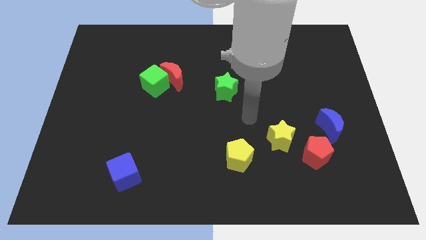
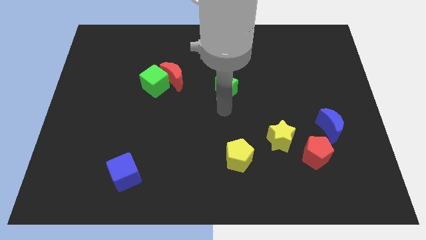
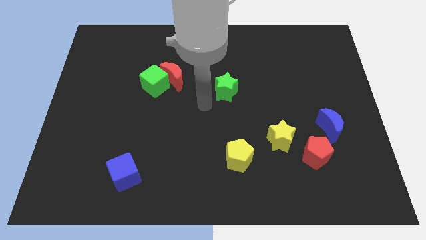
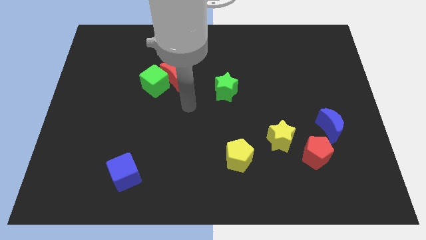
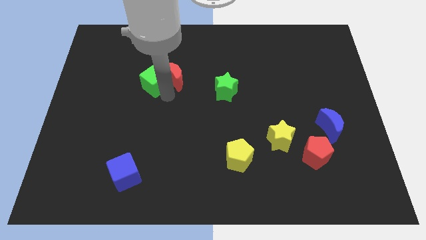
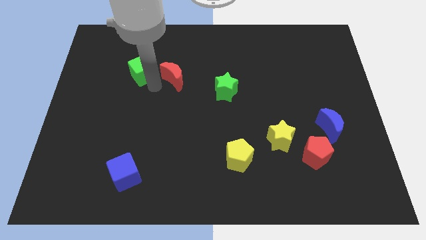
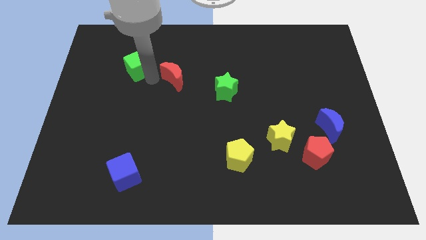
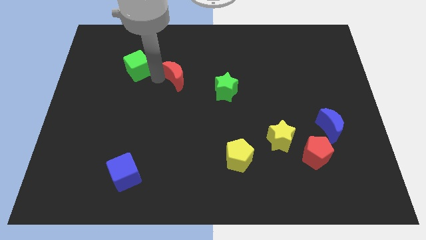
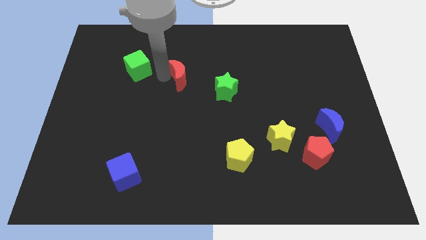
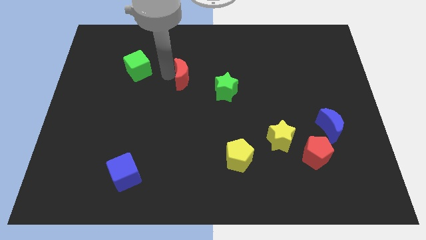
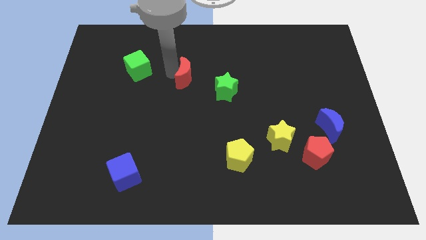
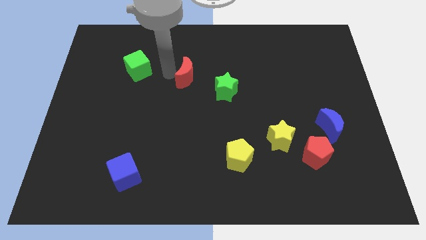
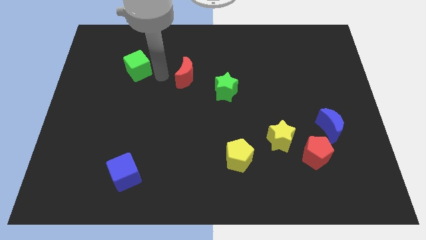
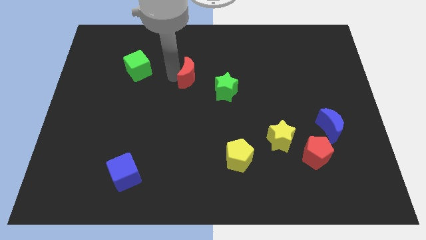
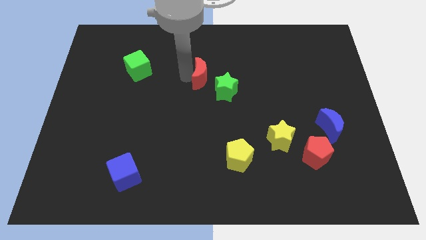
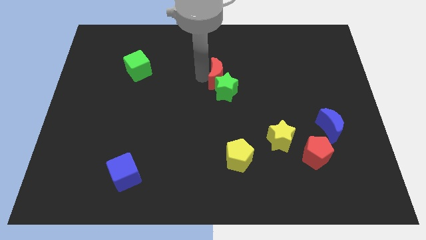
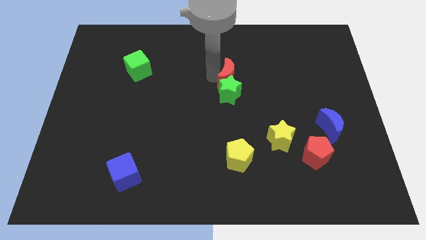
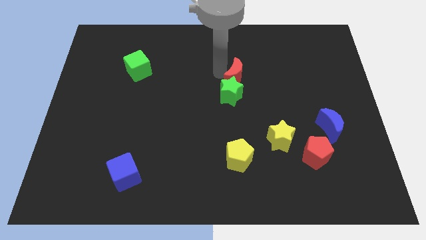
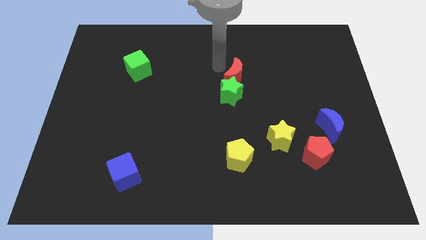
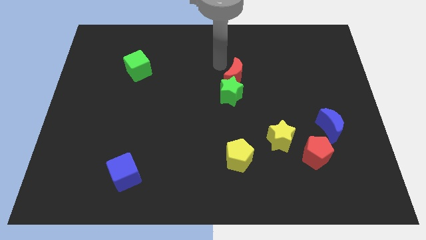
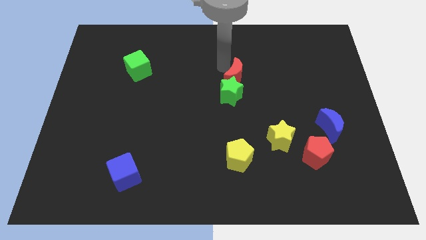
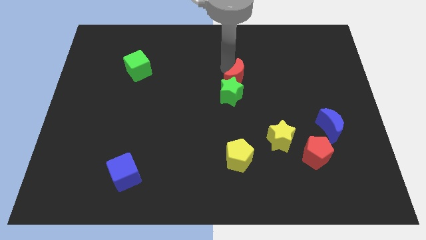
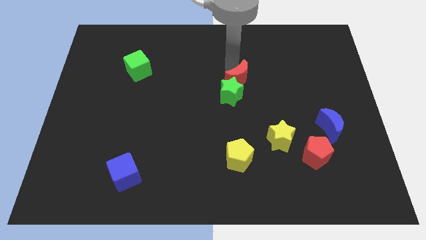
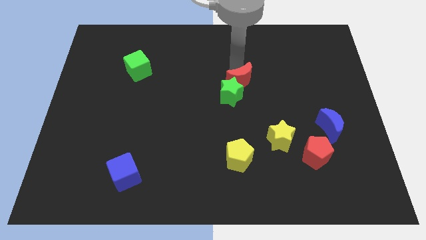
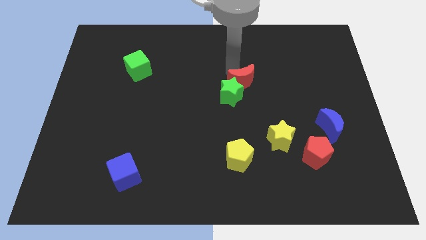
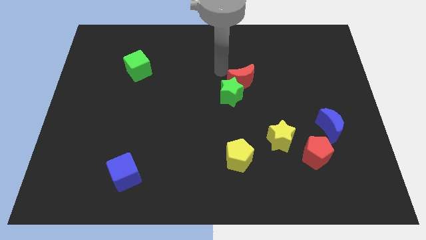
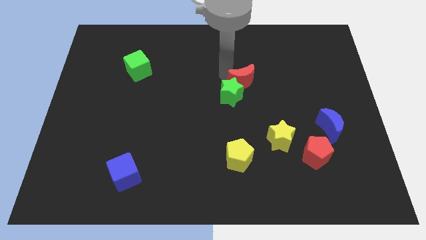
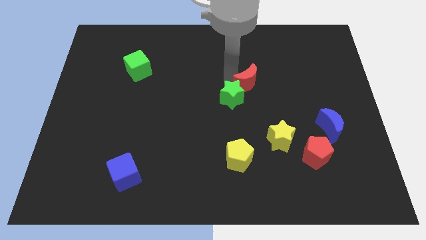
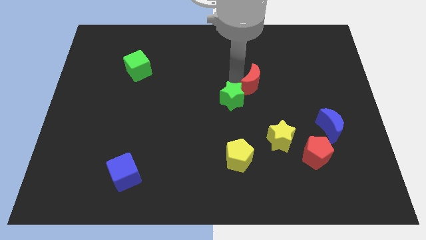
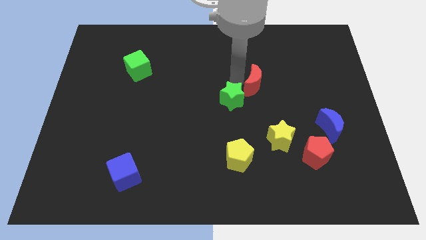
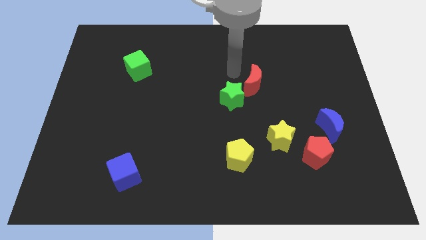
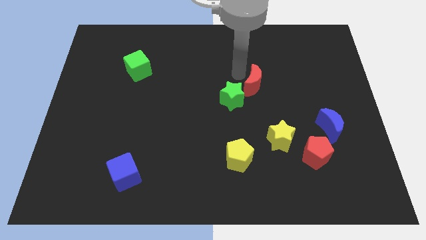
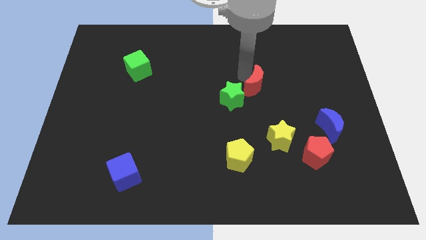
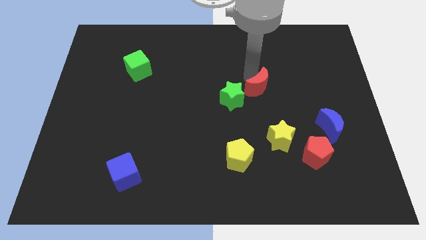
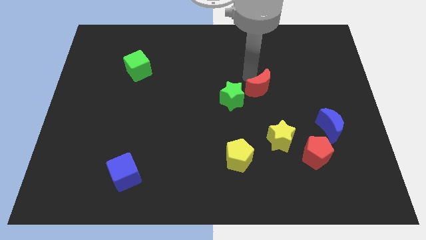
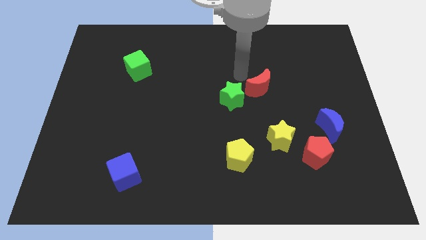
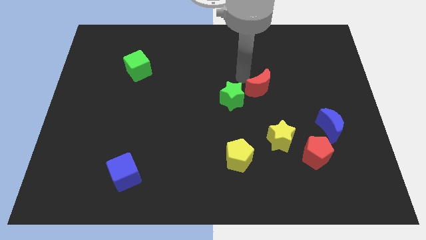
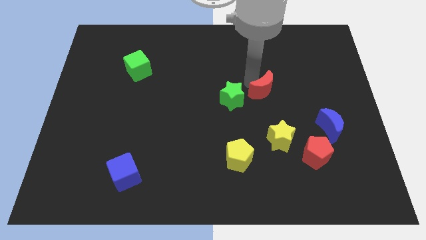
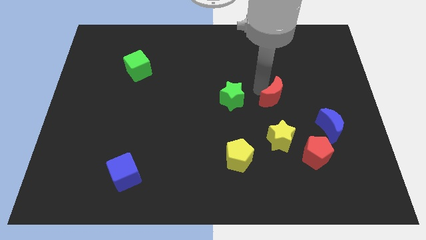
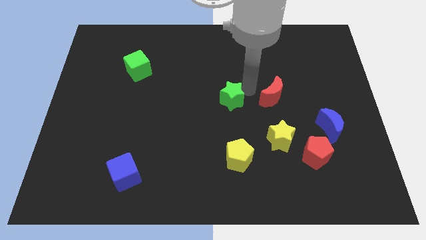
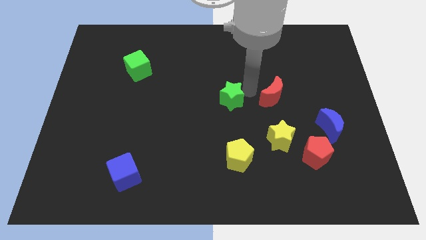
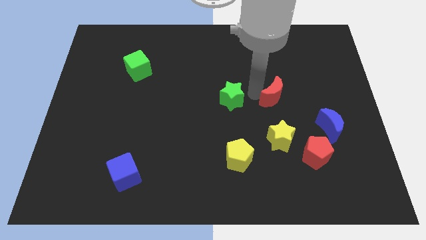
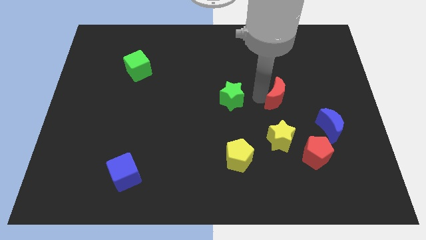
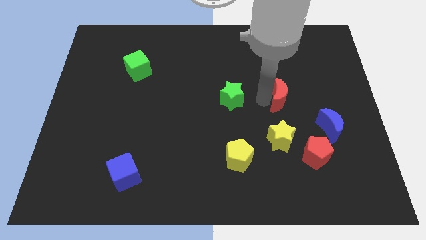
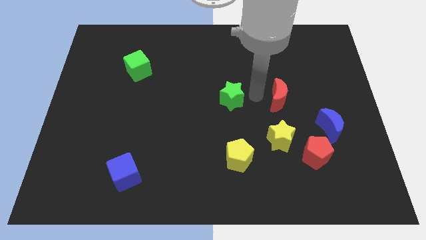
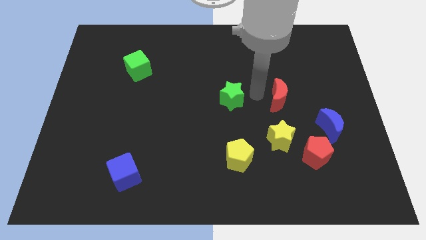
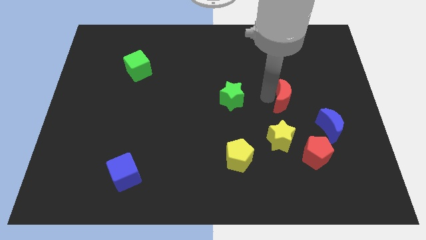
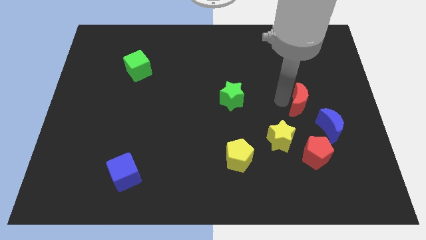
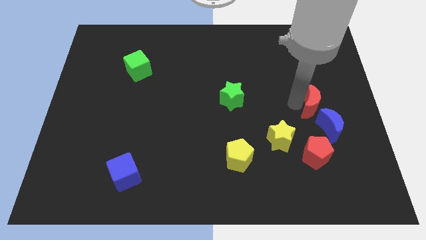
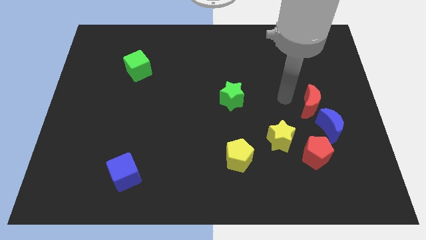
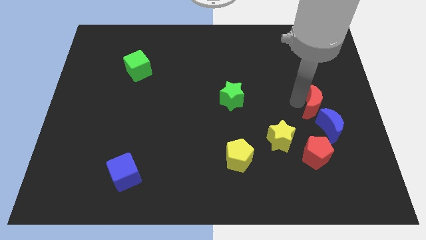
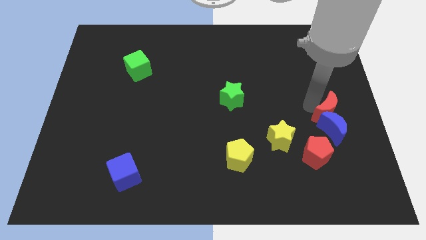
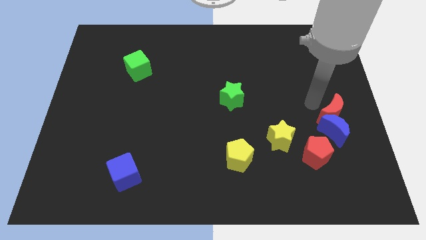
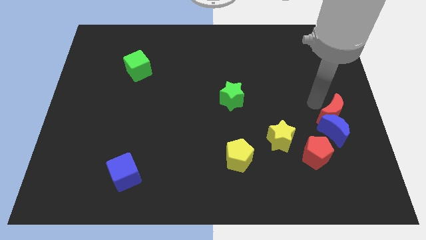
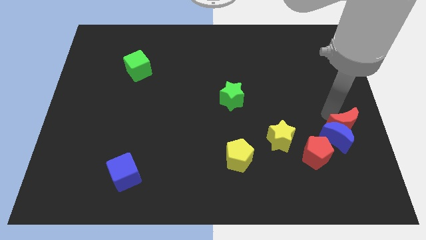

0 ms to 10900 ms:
move the red moon just right of the yellow star

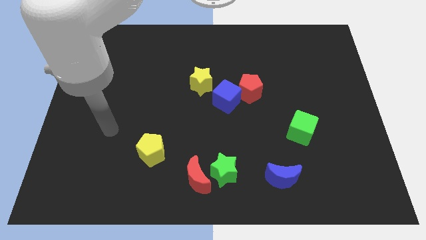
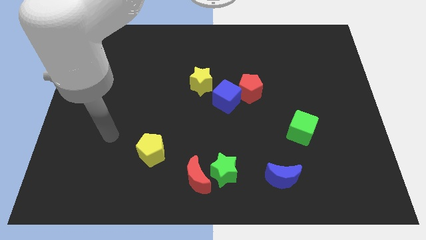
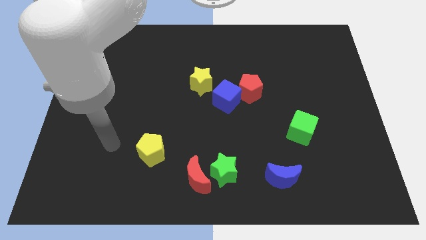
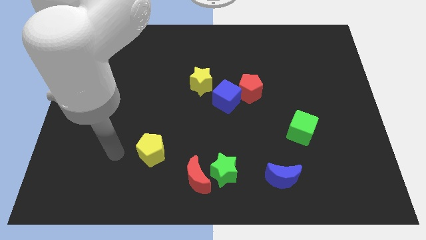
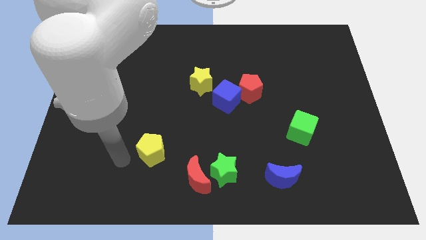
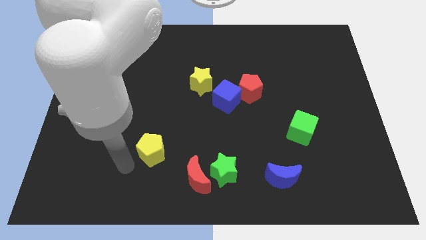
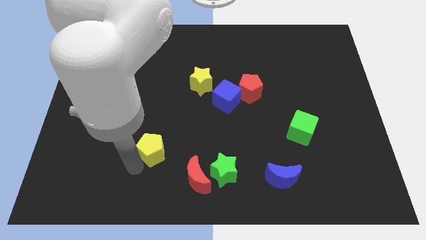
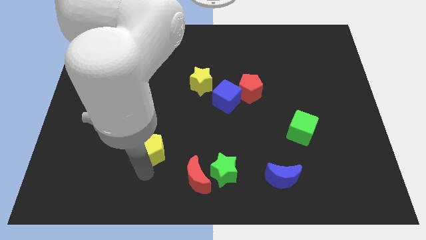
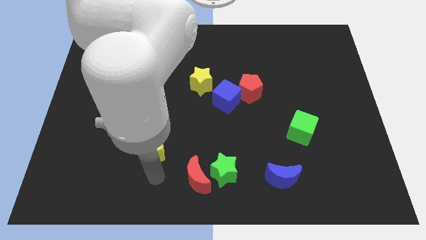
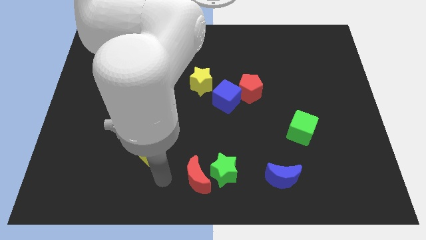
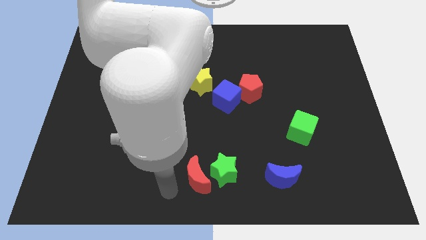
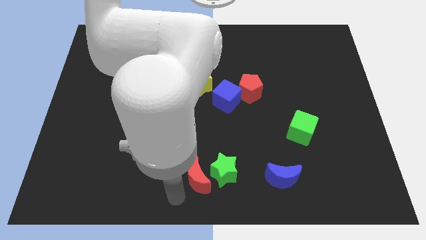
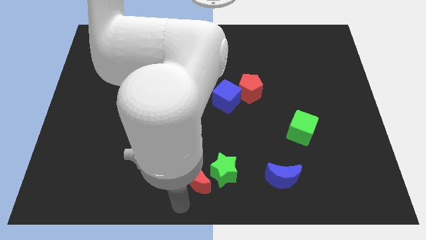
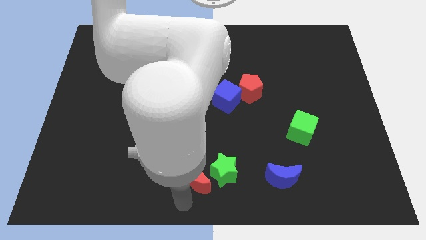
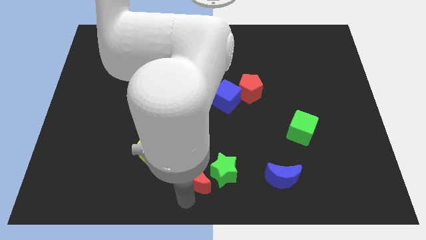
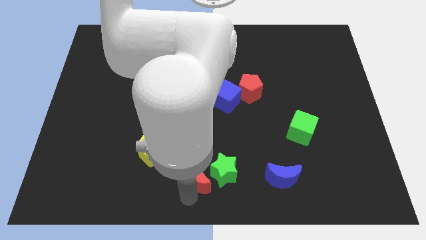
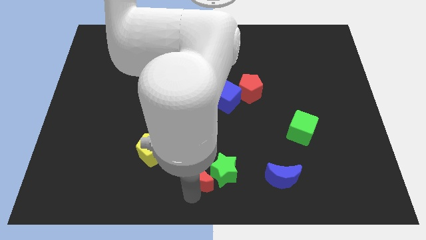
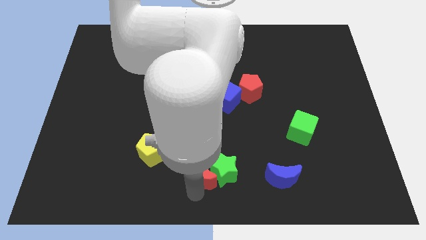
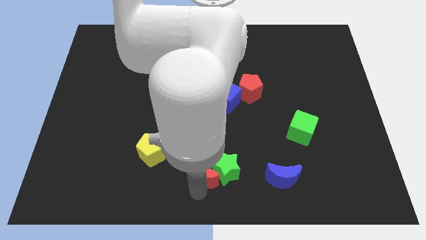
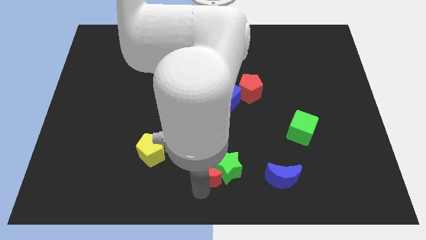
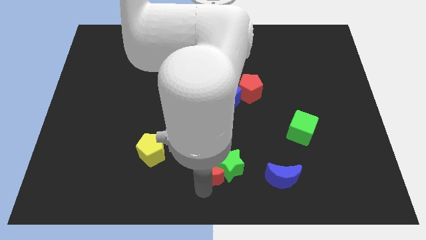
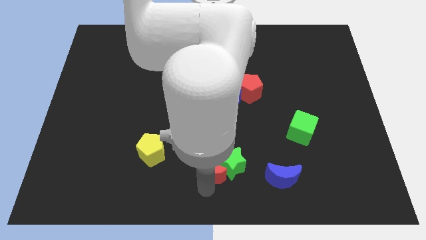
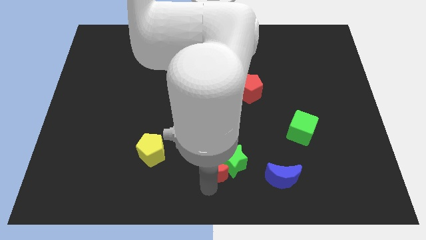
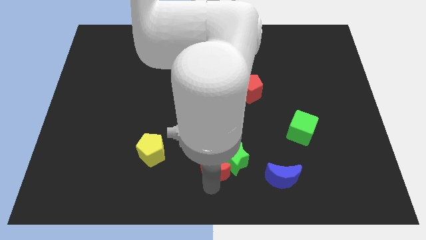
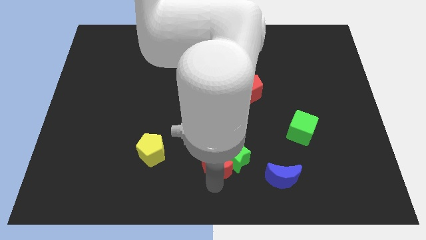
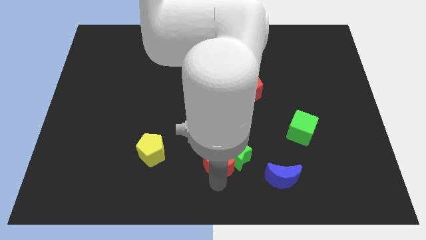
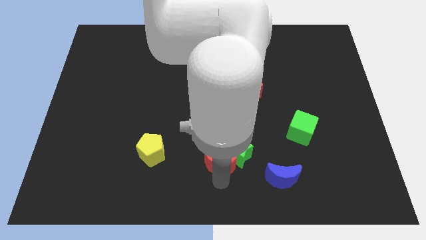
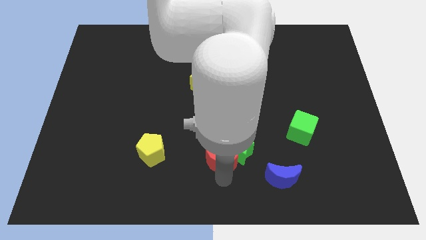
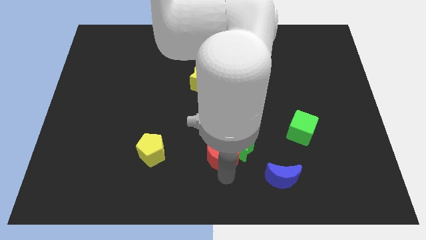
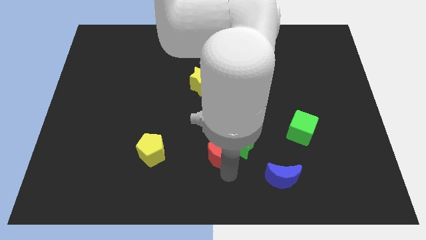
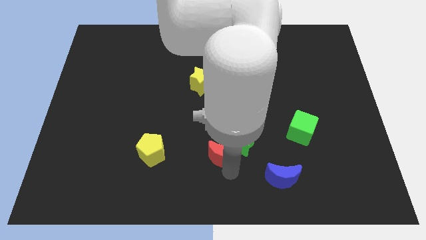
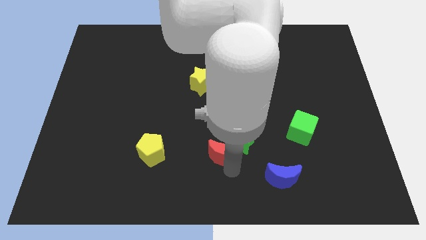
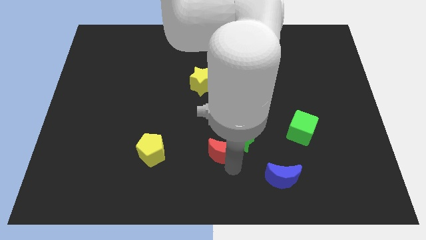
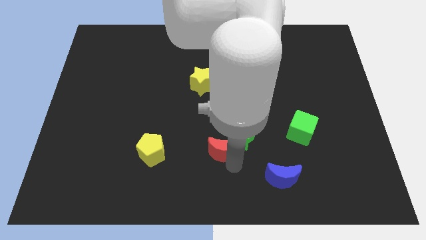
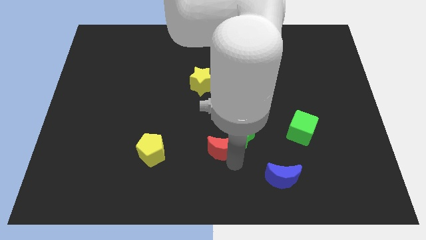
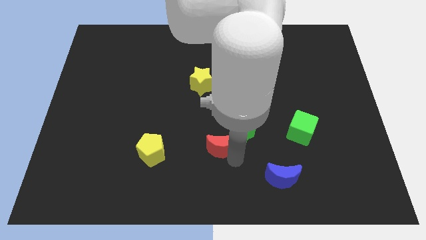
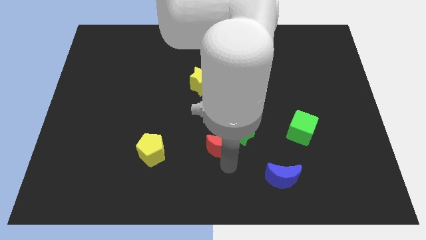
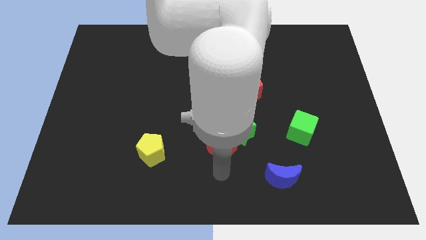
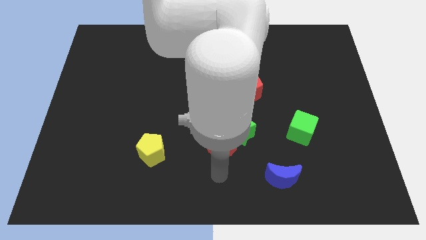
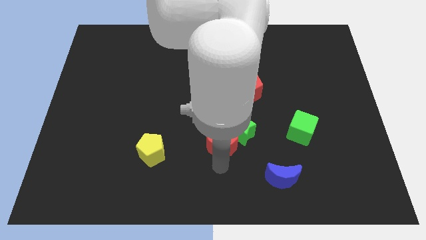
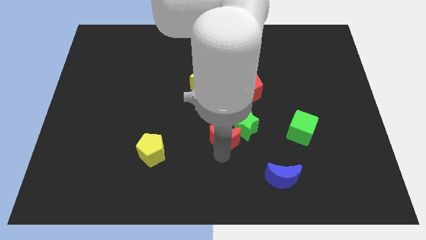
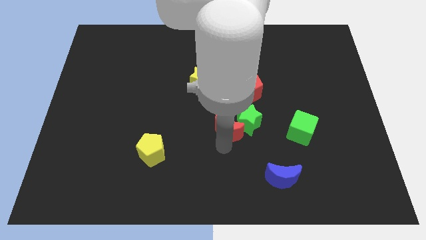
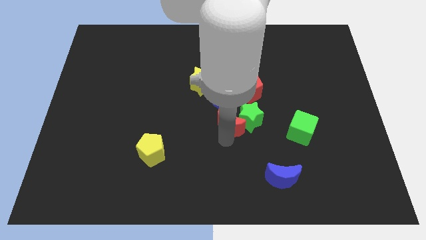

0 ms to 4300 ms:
move the red moon to the bottom left of the red pentagon
